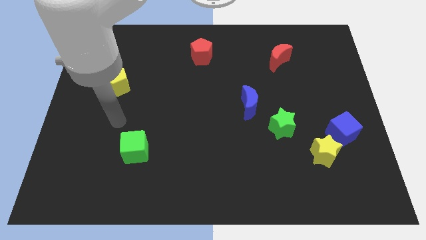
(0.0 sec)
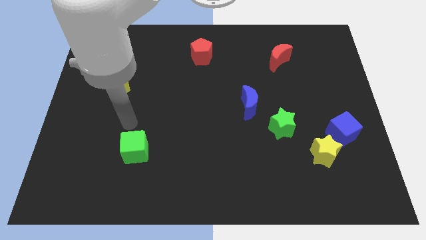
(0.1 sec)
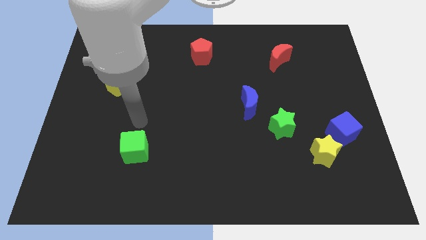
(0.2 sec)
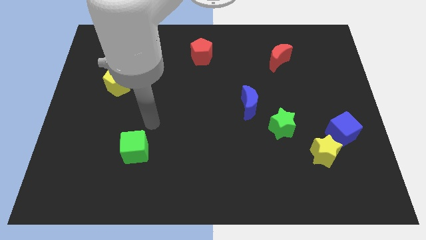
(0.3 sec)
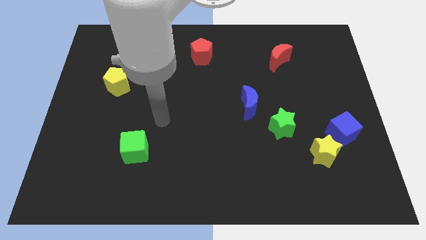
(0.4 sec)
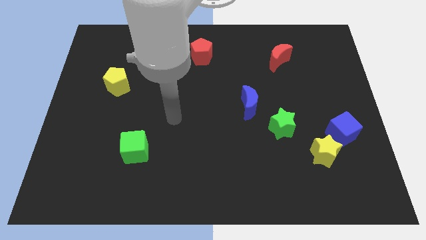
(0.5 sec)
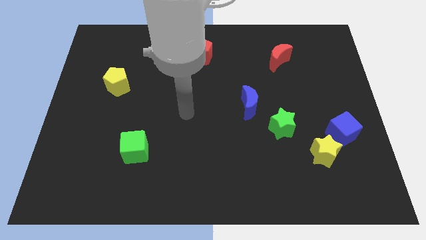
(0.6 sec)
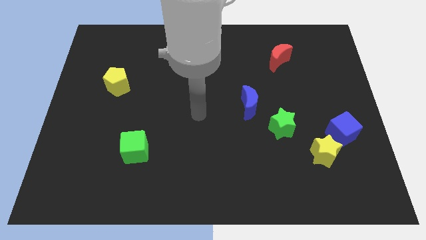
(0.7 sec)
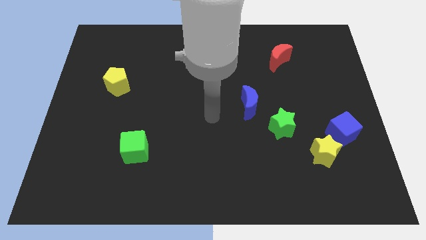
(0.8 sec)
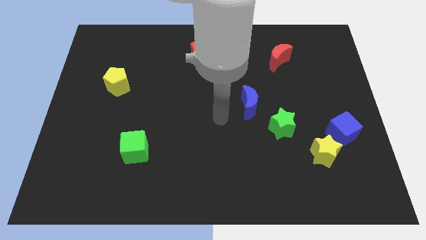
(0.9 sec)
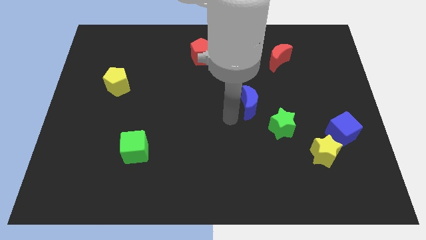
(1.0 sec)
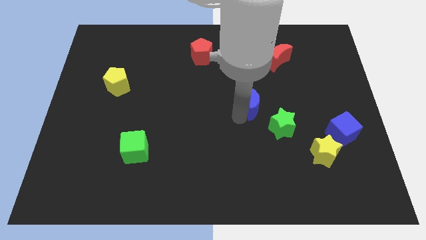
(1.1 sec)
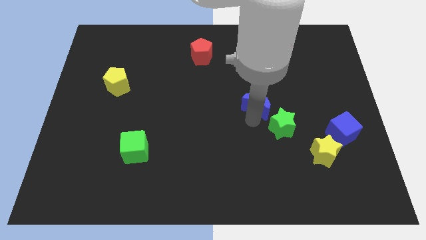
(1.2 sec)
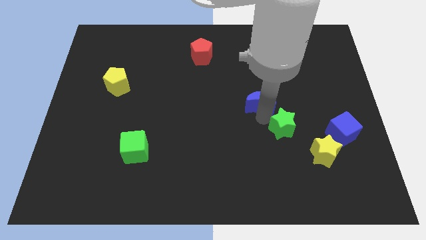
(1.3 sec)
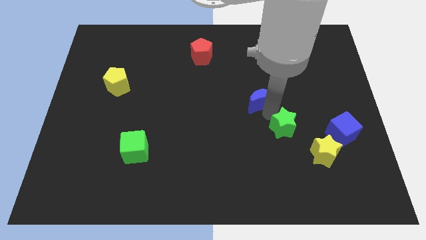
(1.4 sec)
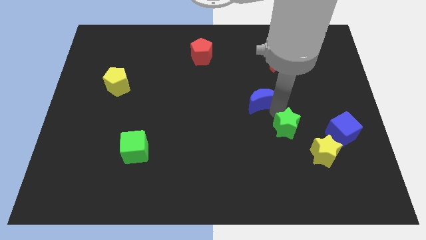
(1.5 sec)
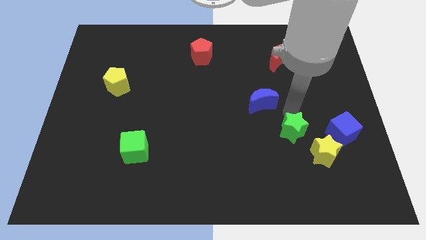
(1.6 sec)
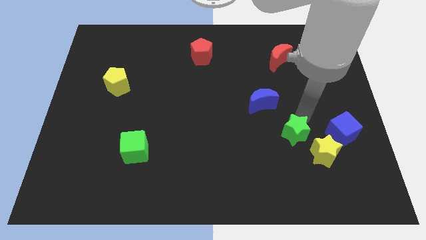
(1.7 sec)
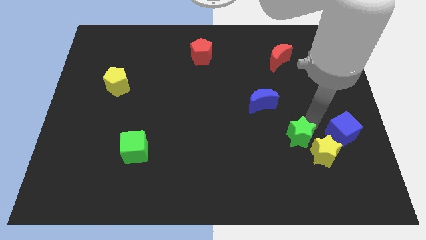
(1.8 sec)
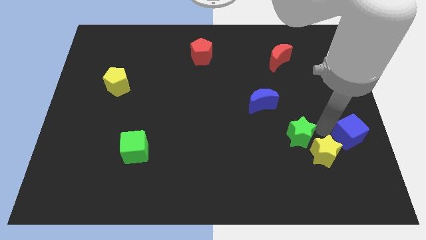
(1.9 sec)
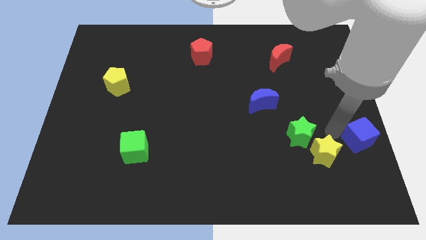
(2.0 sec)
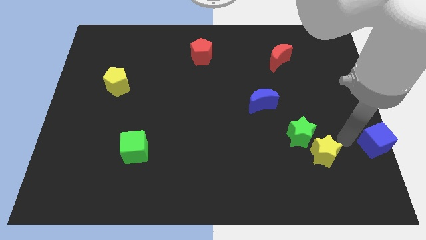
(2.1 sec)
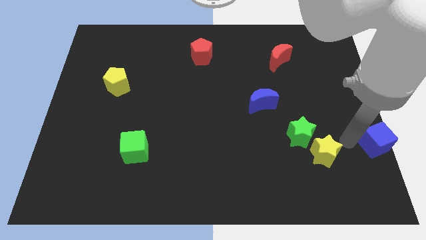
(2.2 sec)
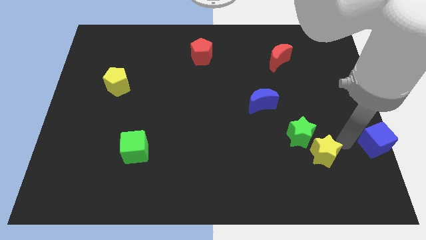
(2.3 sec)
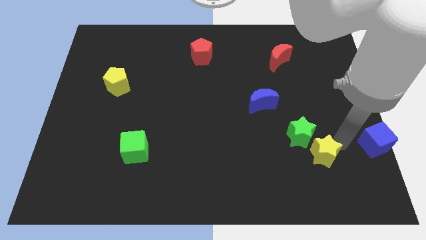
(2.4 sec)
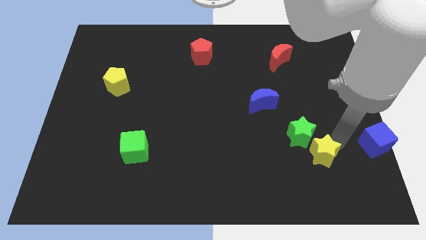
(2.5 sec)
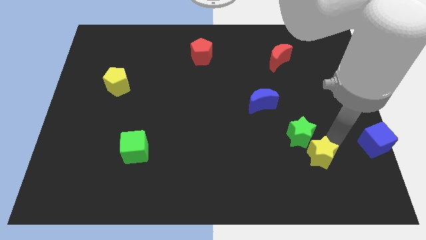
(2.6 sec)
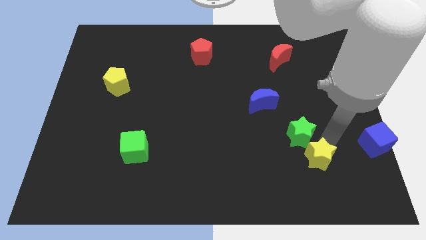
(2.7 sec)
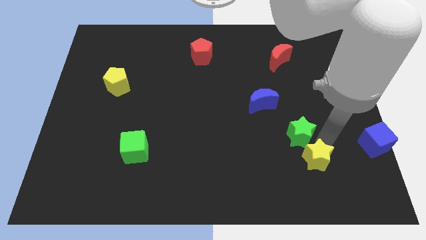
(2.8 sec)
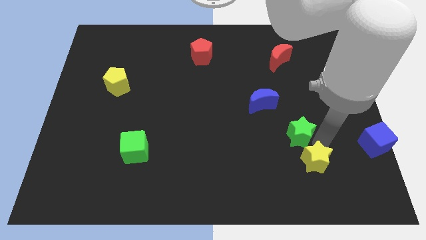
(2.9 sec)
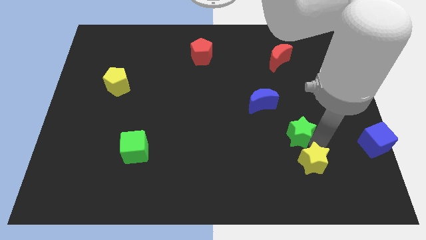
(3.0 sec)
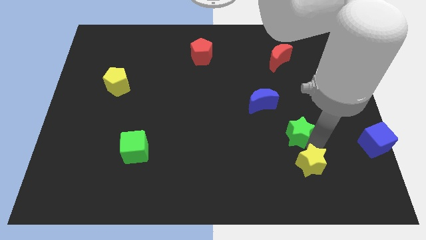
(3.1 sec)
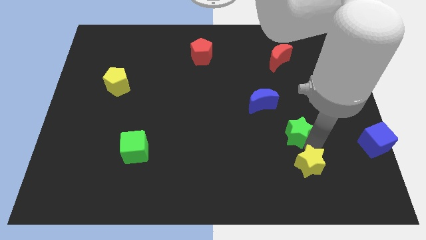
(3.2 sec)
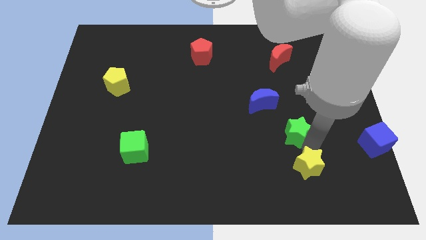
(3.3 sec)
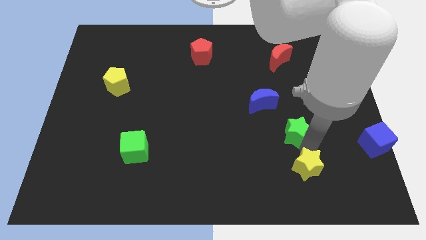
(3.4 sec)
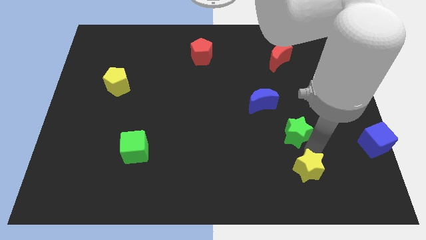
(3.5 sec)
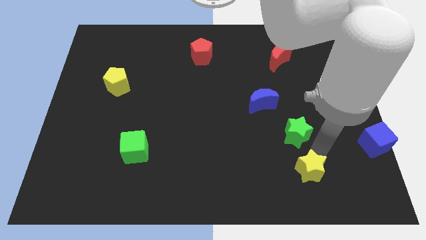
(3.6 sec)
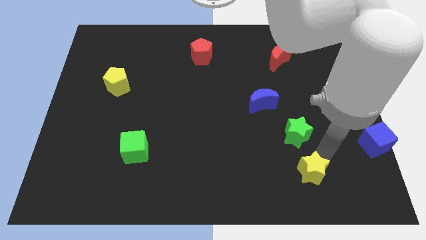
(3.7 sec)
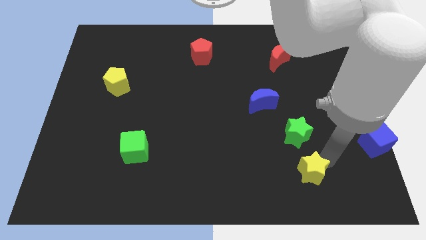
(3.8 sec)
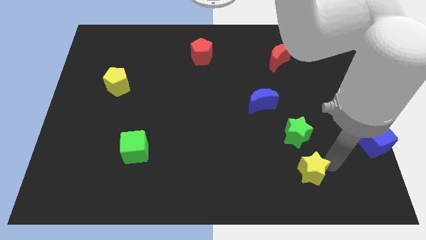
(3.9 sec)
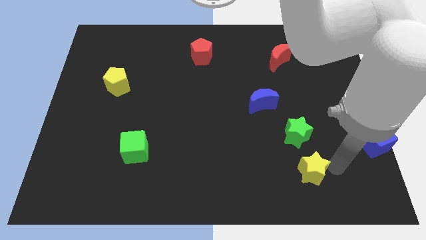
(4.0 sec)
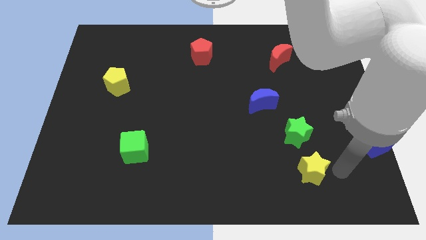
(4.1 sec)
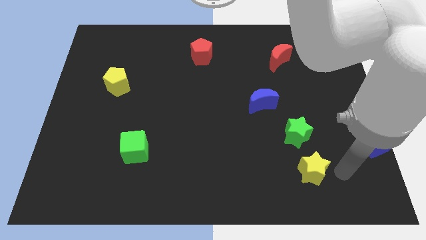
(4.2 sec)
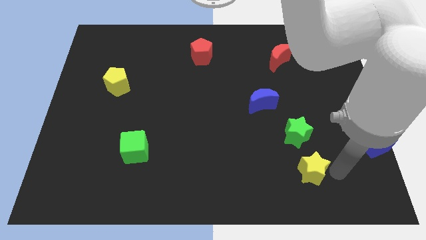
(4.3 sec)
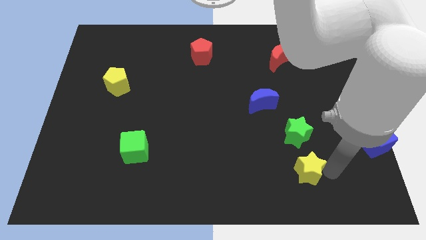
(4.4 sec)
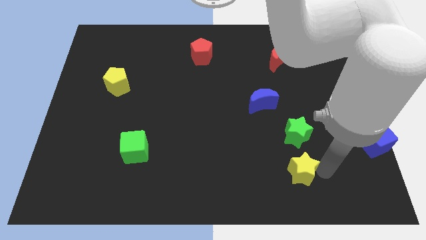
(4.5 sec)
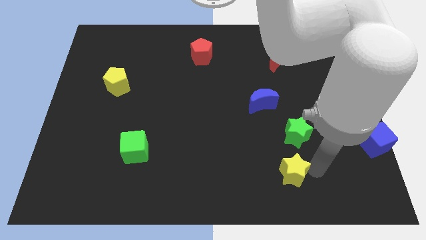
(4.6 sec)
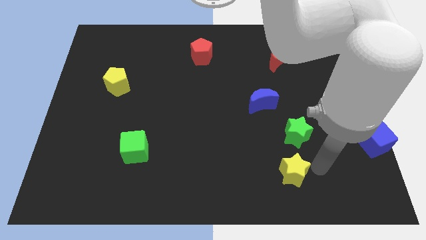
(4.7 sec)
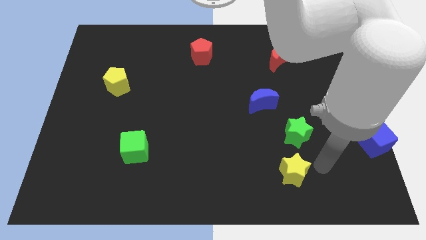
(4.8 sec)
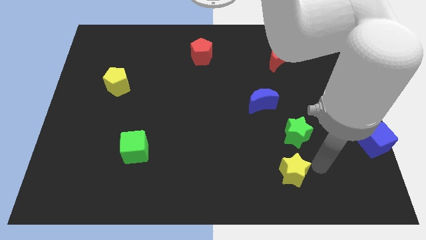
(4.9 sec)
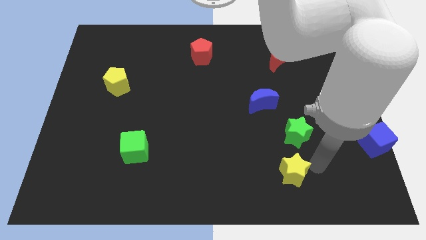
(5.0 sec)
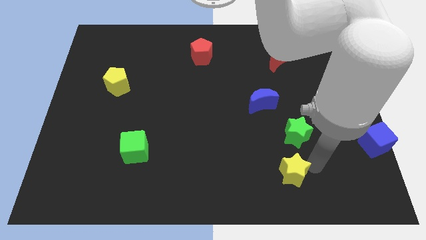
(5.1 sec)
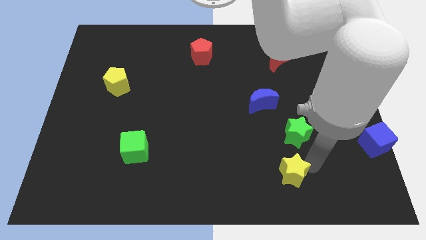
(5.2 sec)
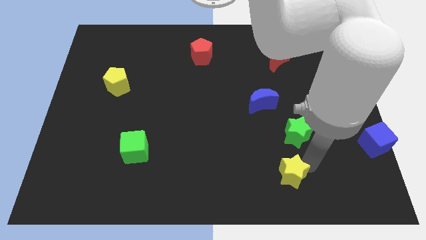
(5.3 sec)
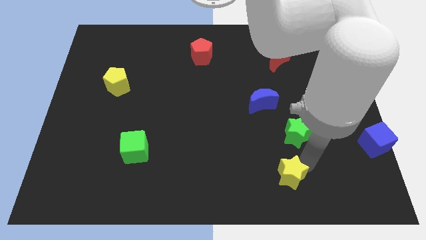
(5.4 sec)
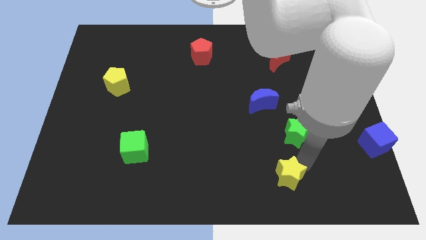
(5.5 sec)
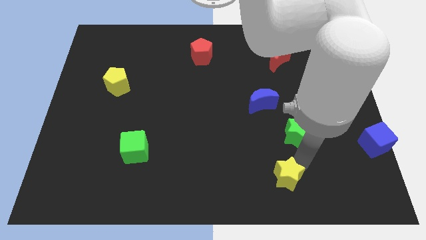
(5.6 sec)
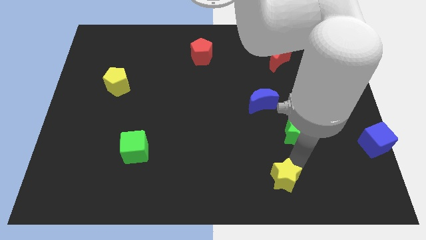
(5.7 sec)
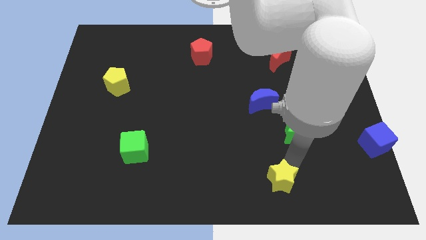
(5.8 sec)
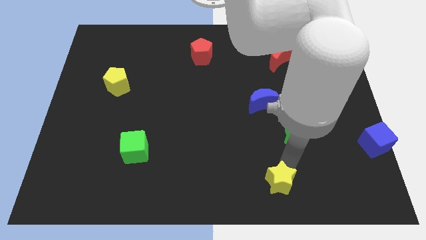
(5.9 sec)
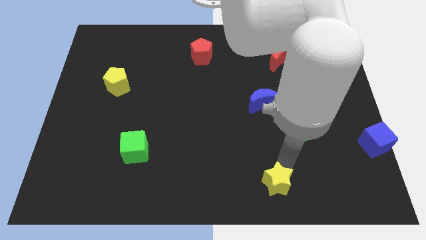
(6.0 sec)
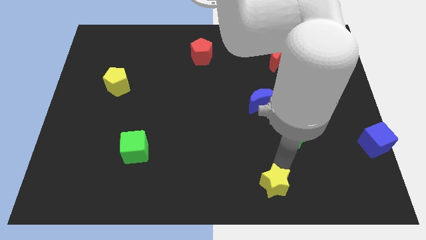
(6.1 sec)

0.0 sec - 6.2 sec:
push the yellow star to the bottom
